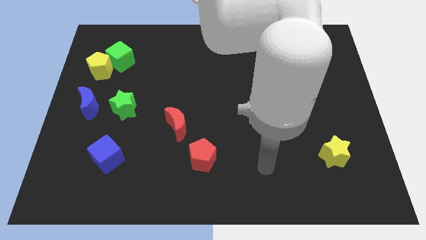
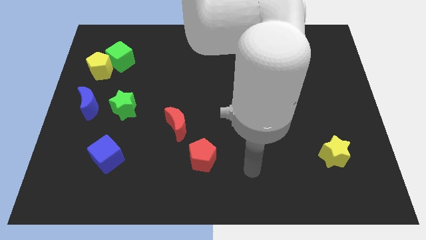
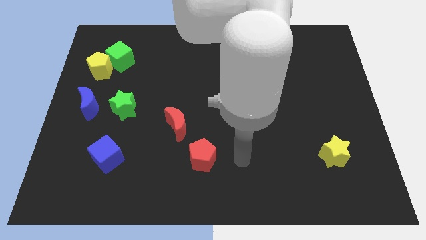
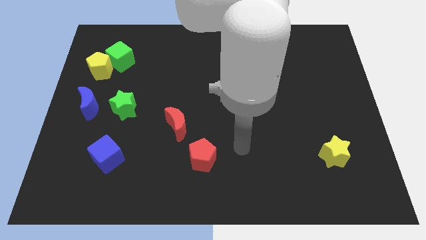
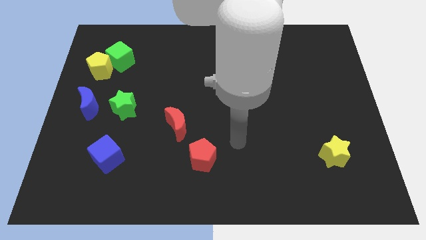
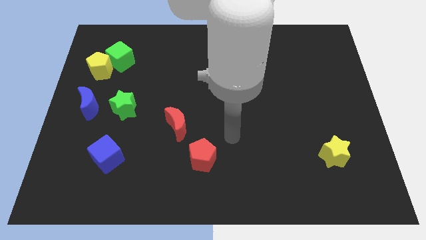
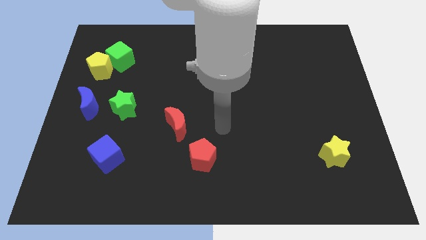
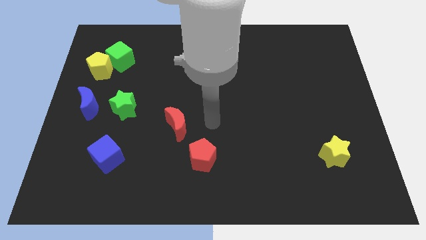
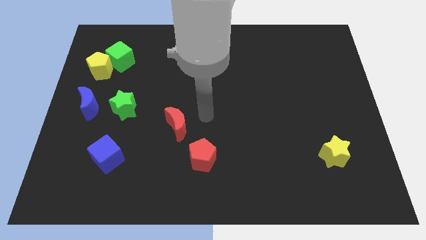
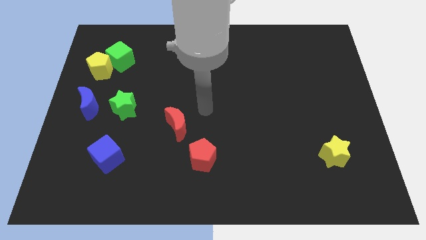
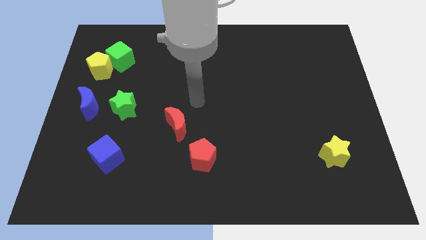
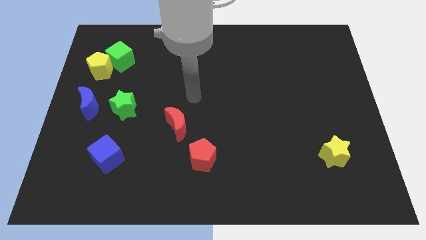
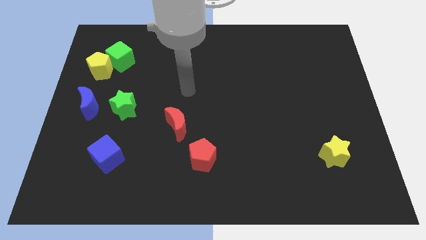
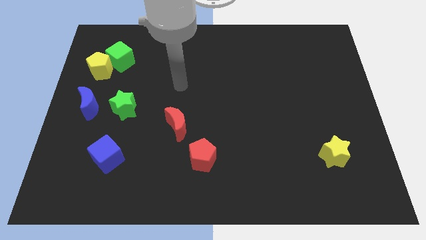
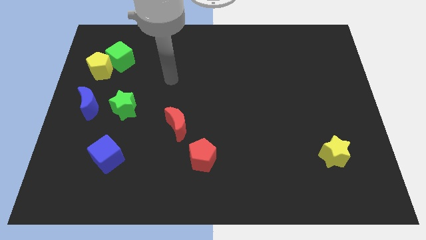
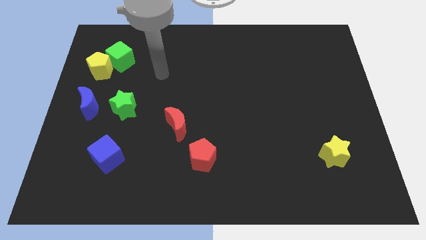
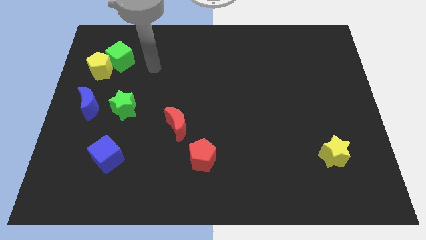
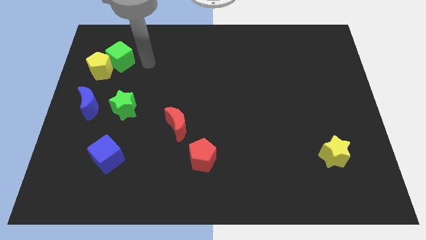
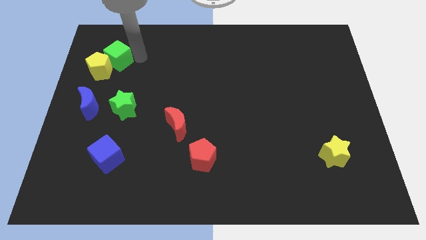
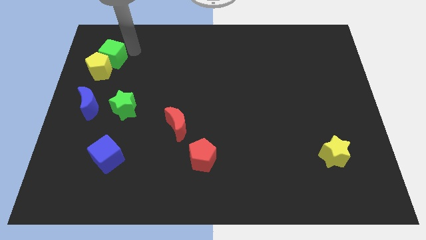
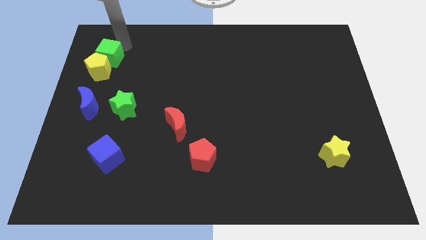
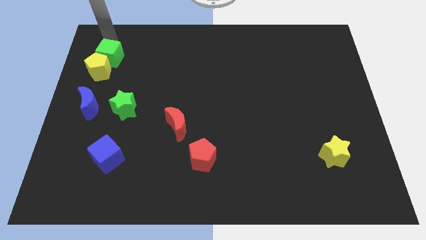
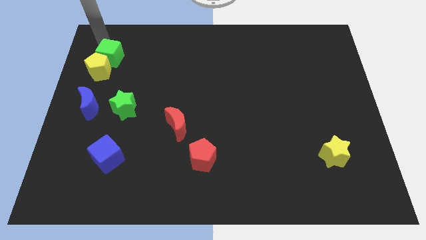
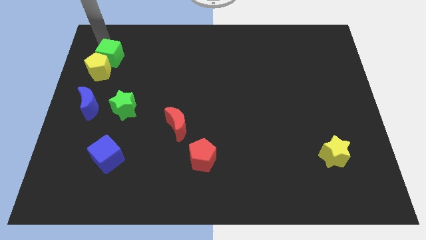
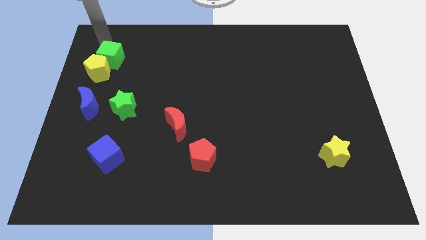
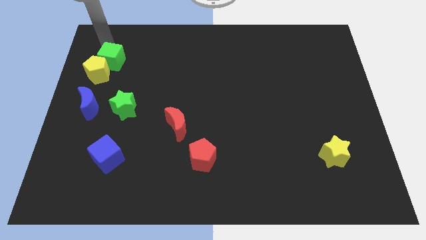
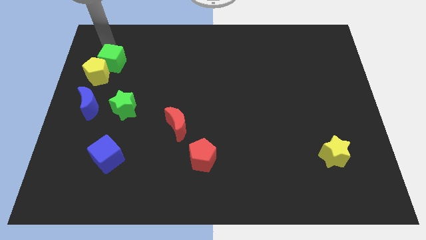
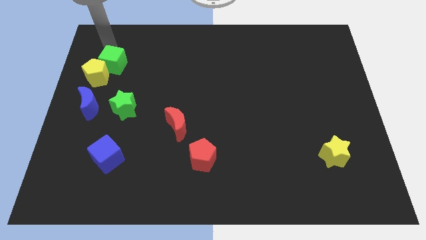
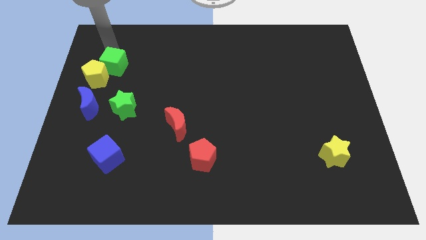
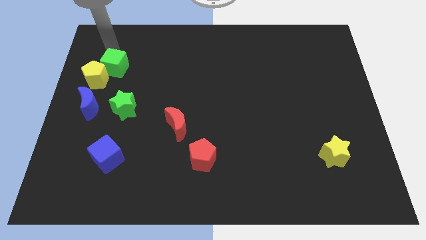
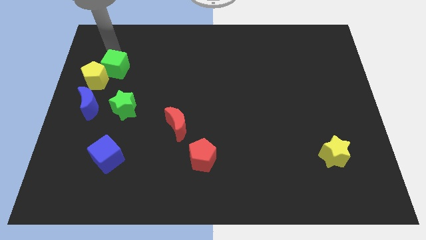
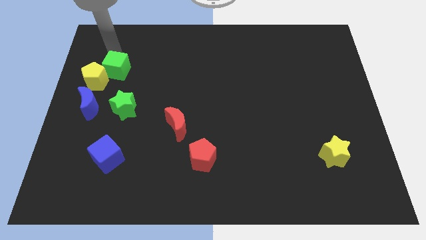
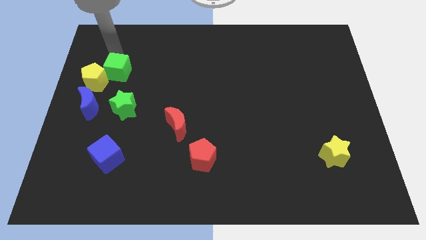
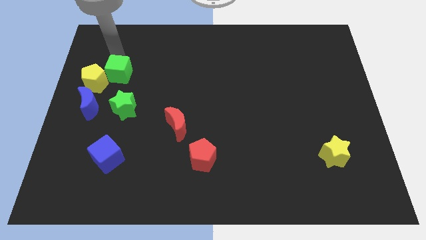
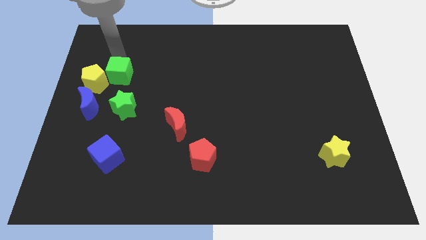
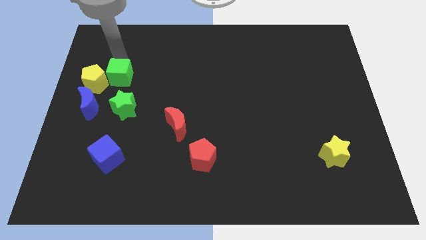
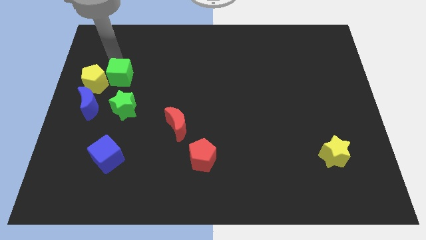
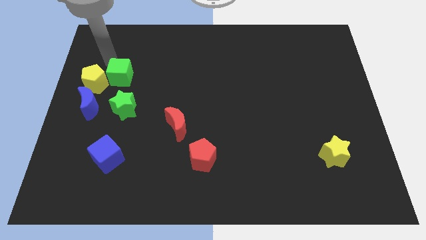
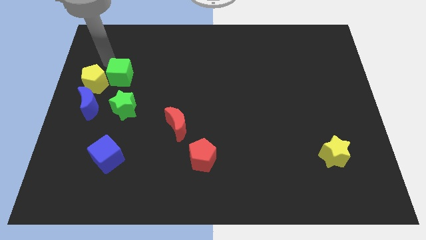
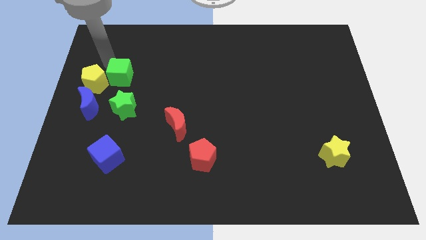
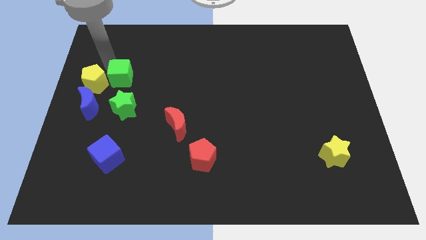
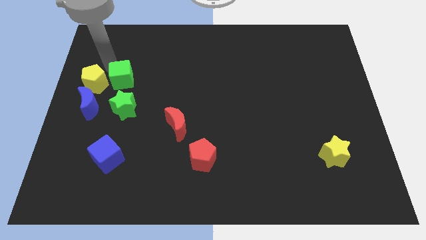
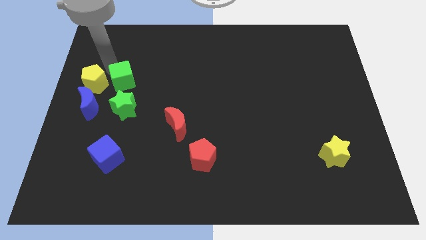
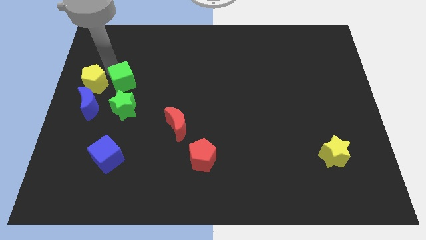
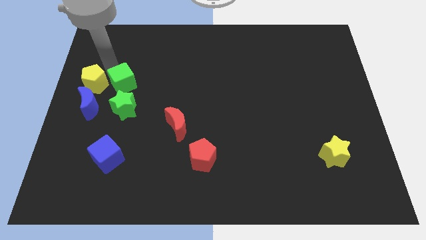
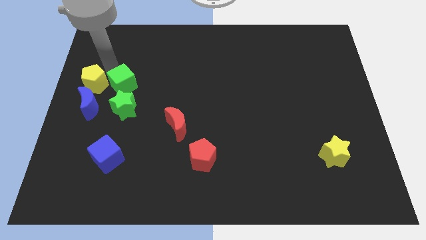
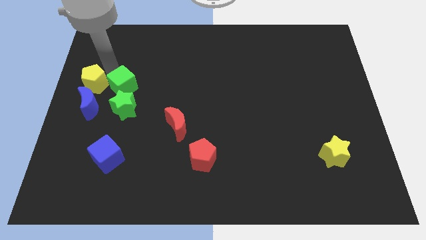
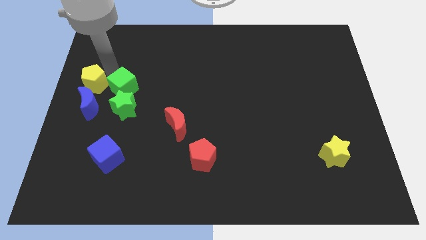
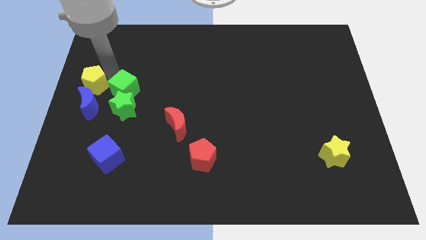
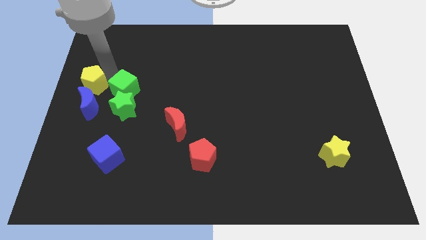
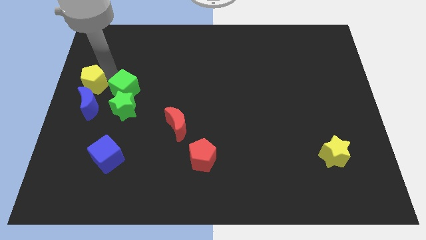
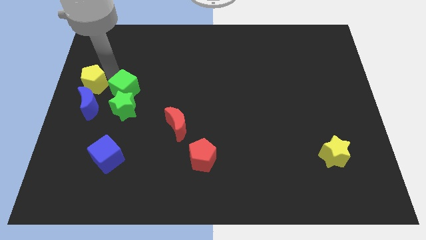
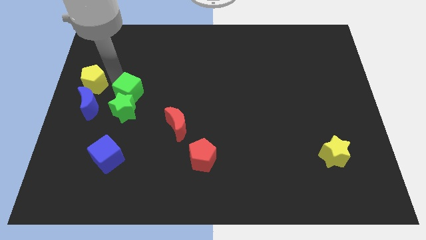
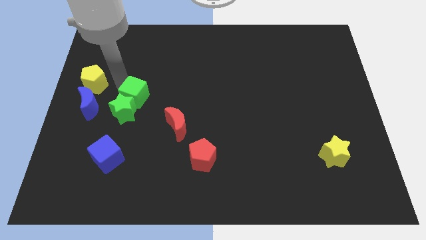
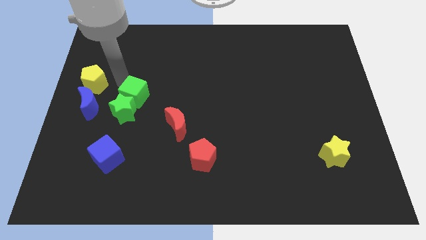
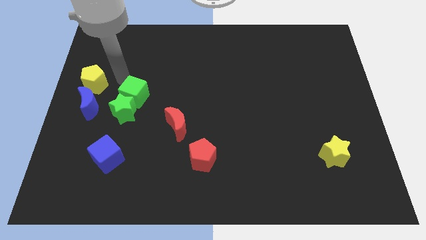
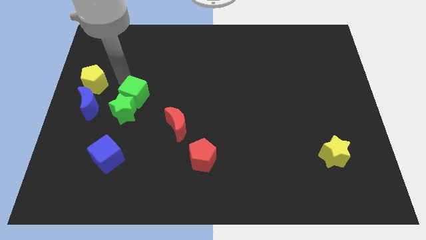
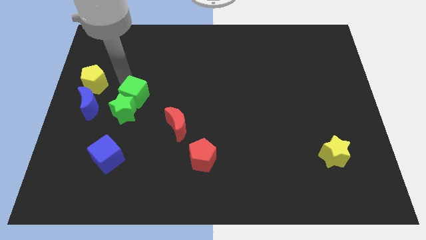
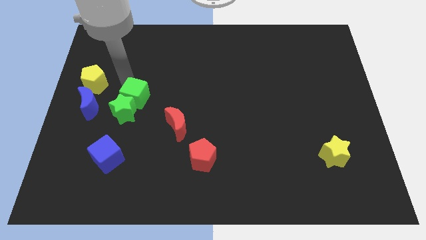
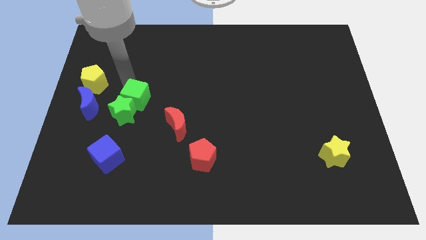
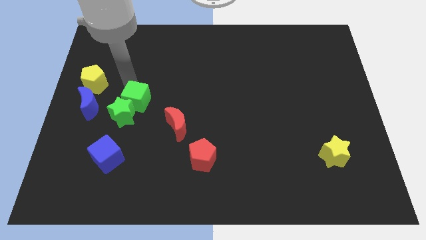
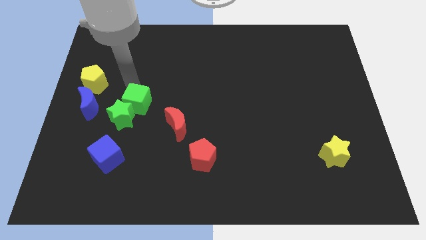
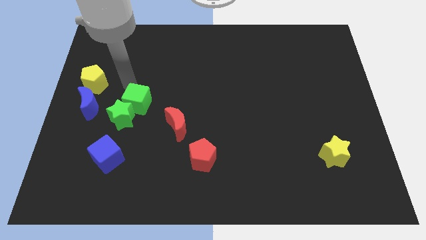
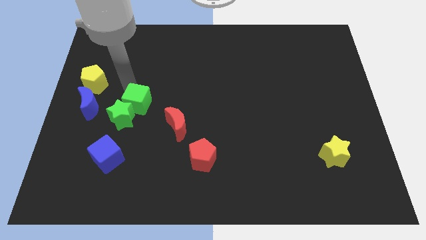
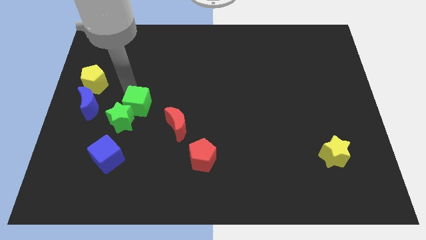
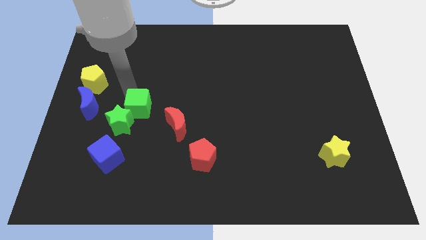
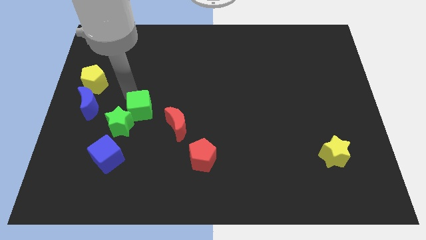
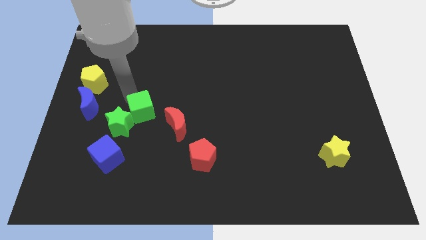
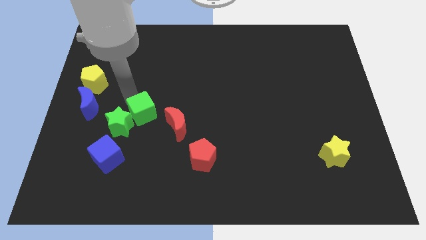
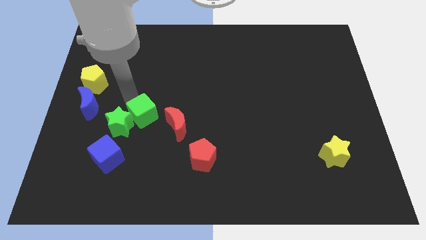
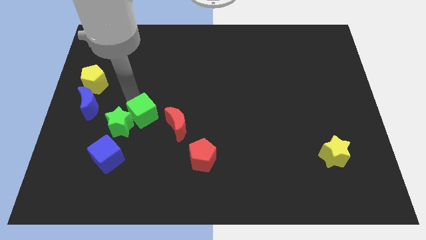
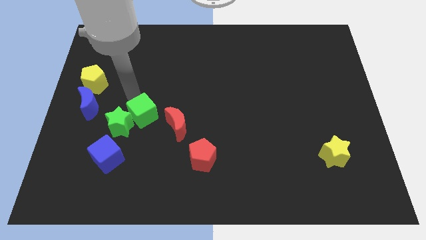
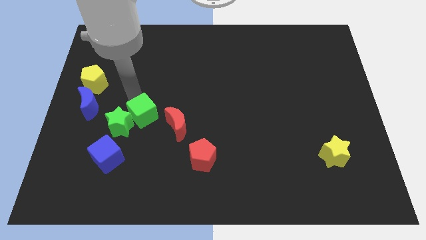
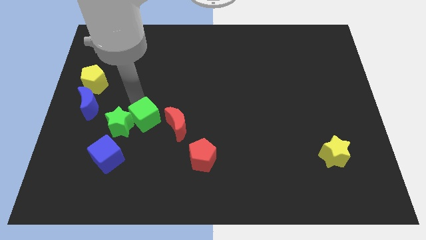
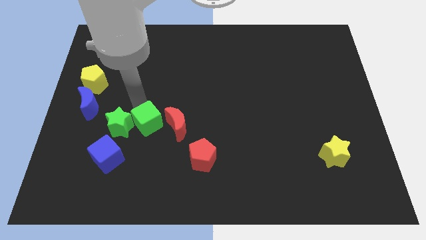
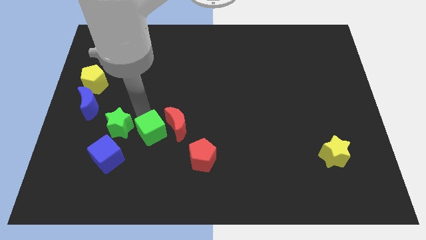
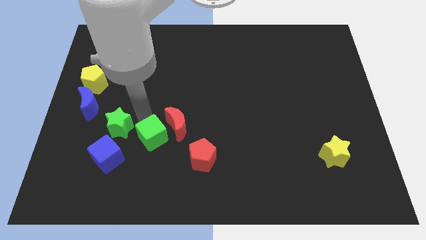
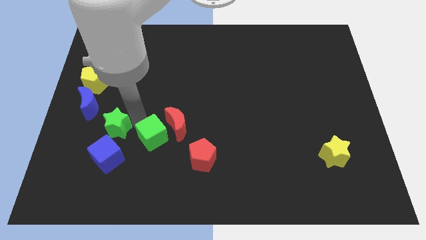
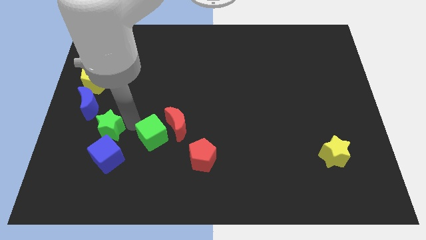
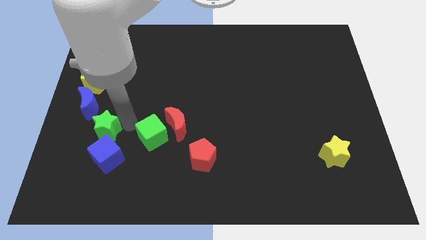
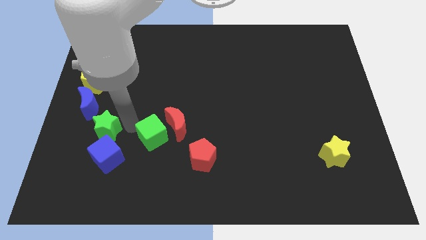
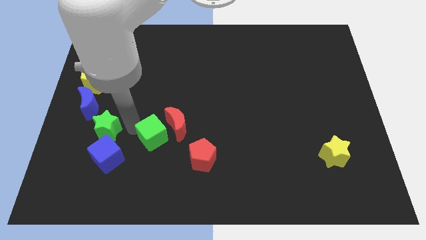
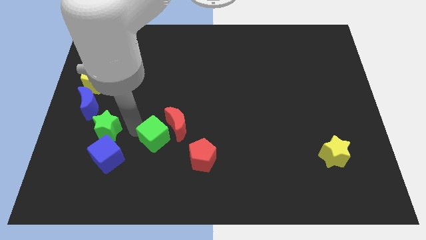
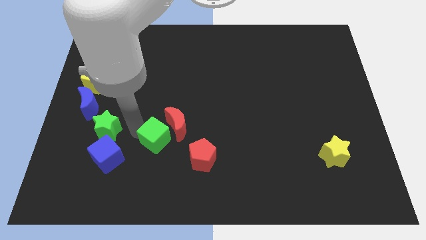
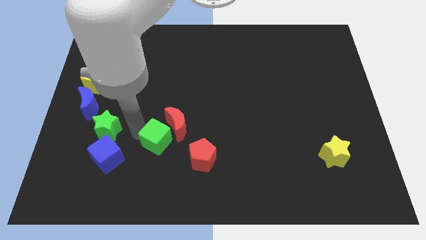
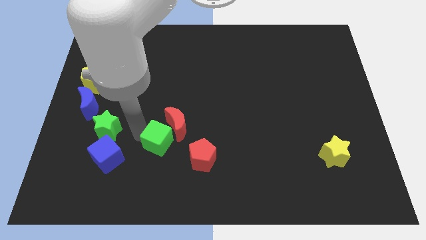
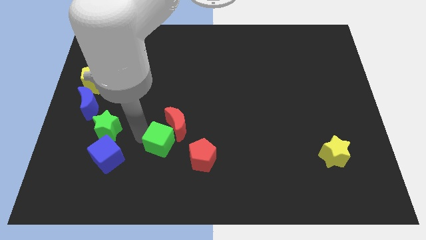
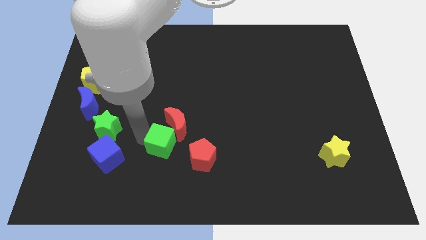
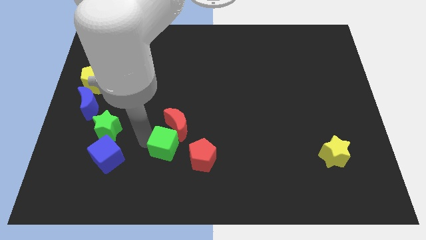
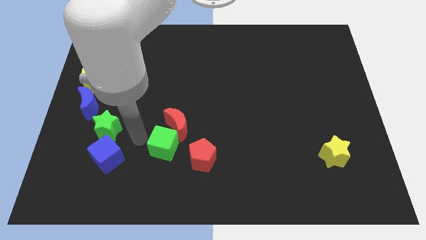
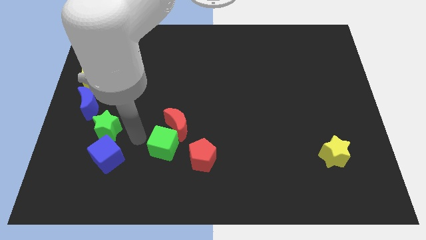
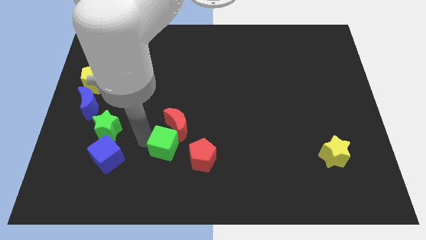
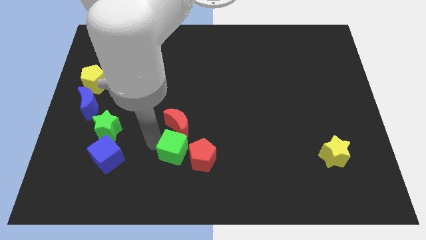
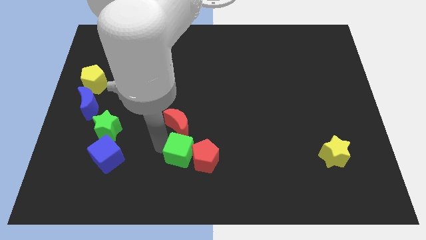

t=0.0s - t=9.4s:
slide the green cube next to the red pentagon
